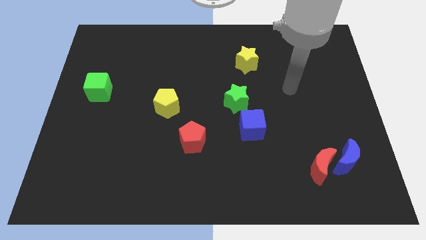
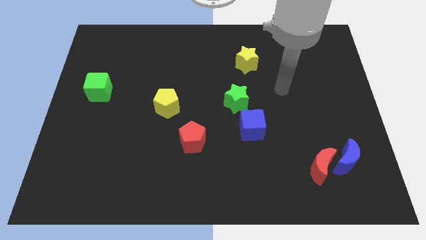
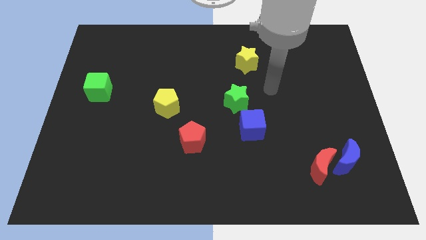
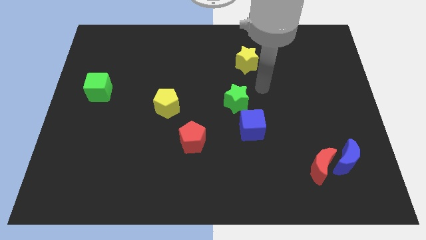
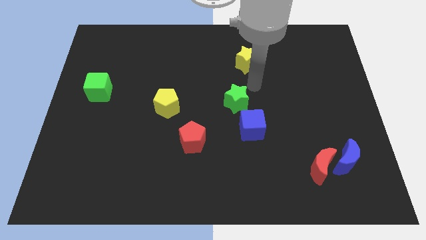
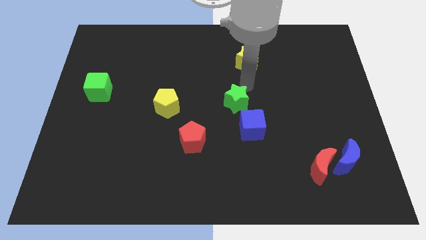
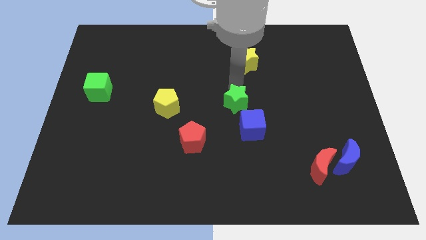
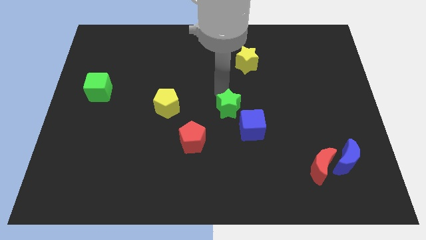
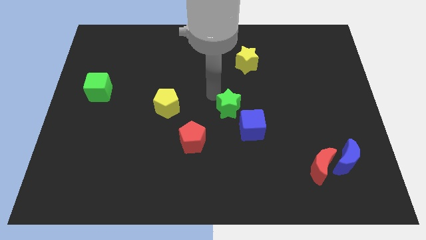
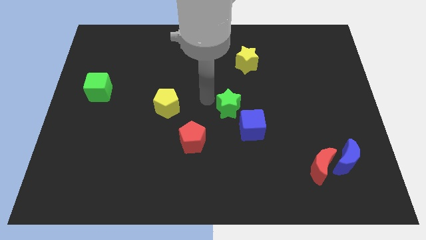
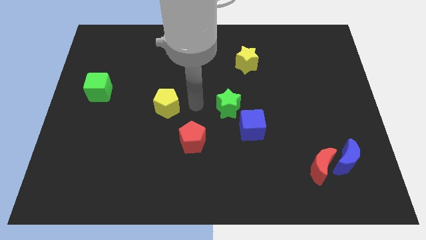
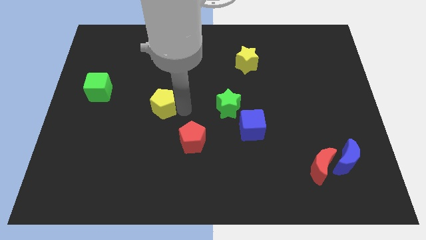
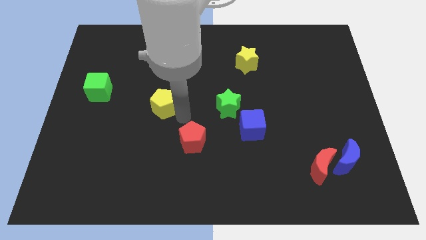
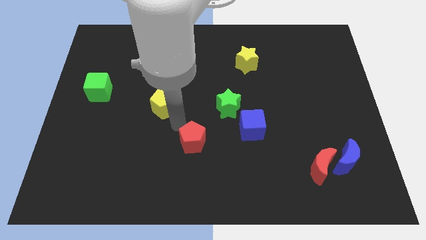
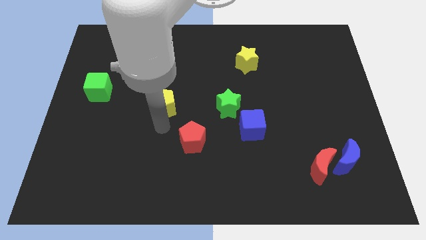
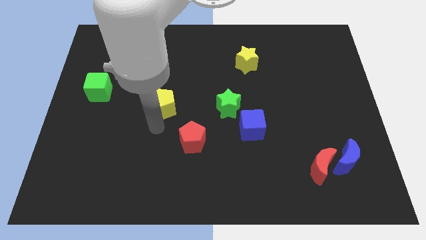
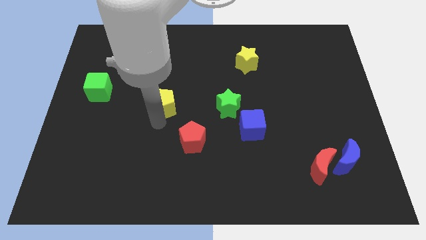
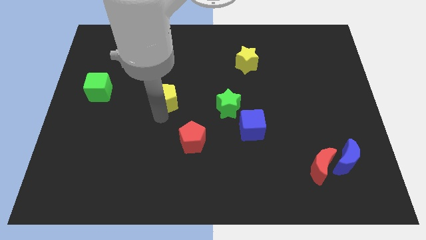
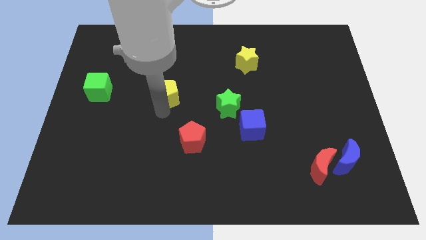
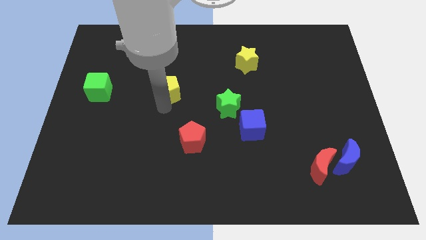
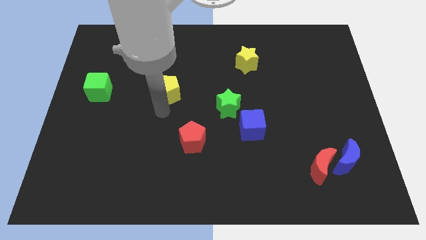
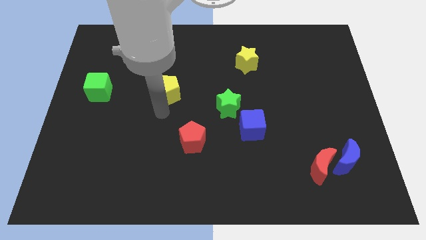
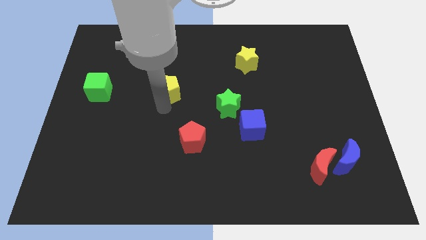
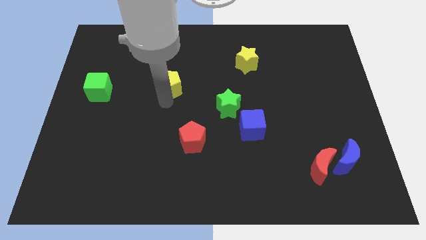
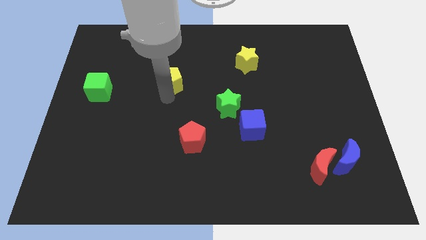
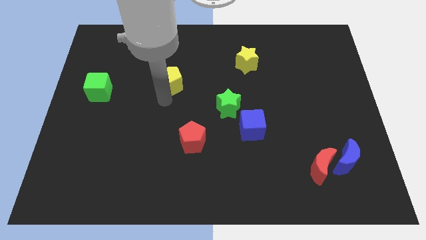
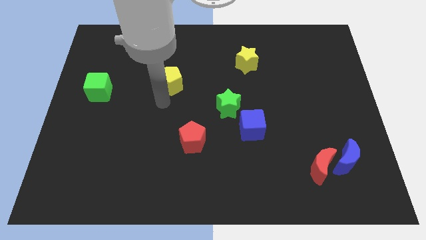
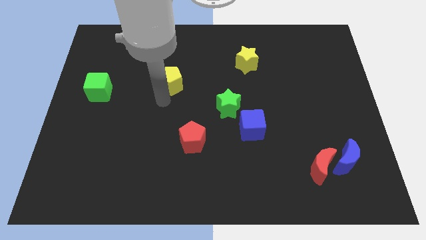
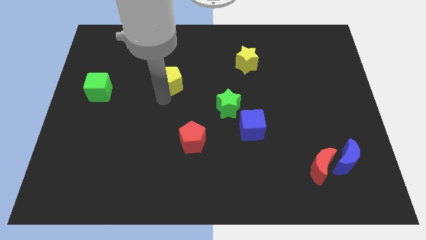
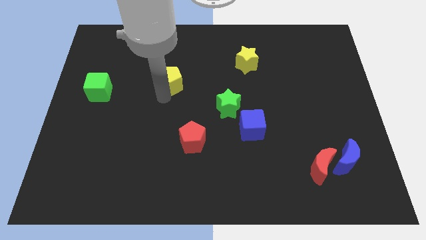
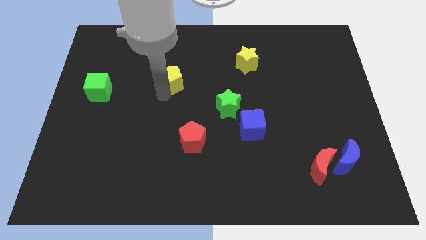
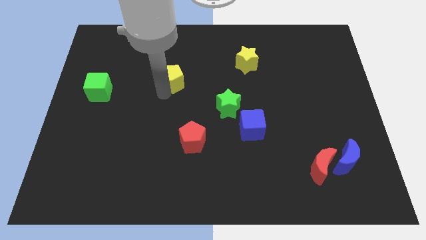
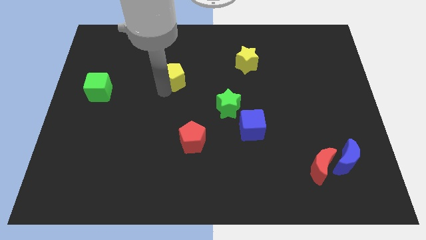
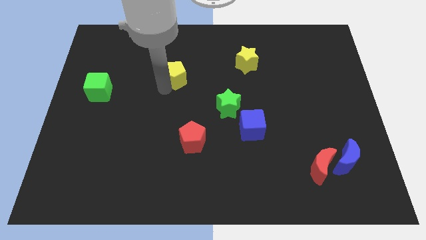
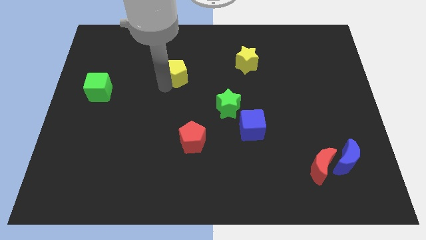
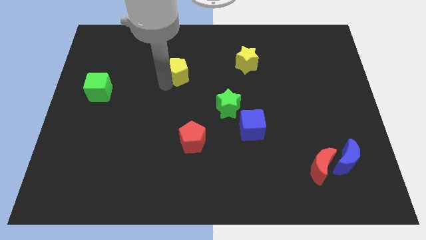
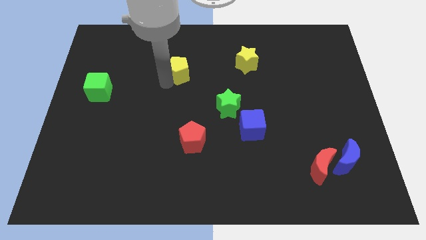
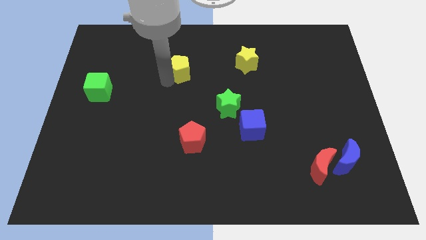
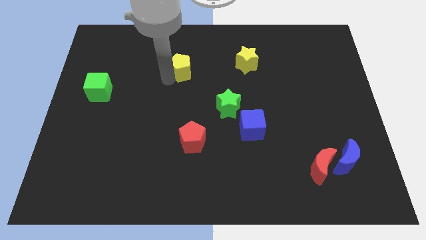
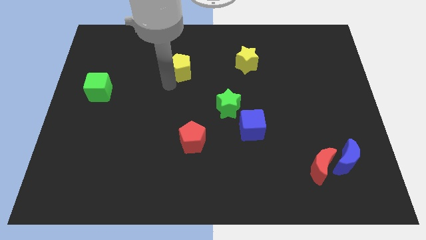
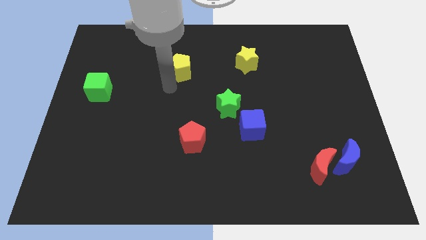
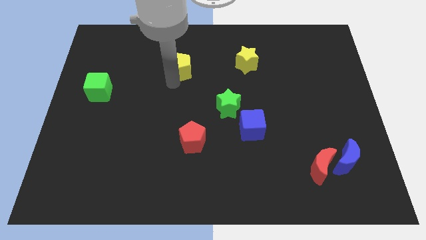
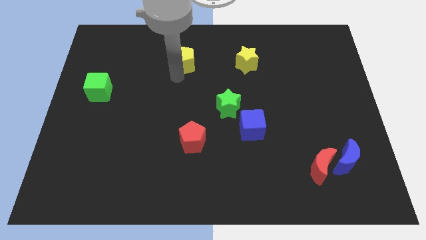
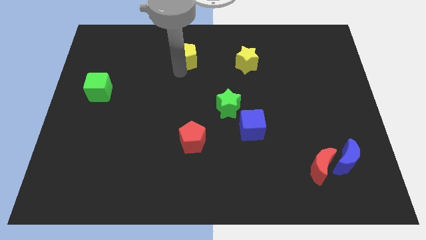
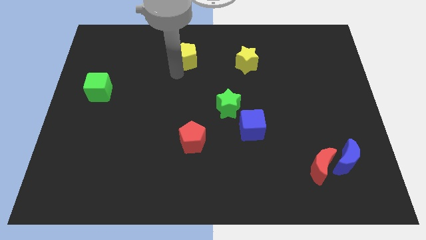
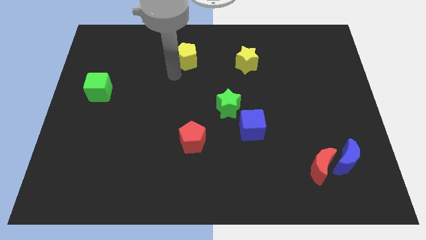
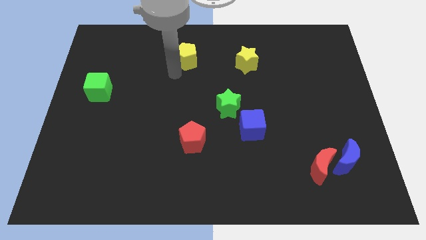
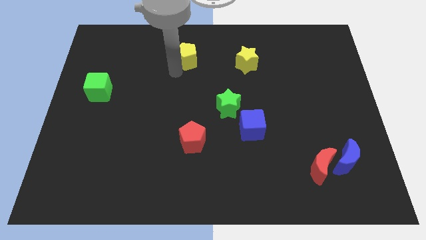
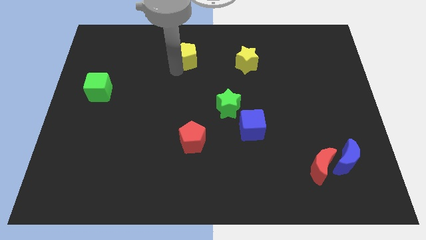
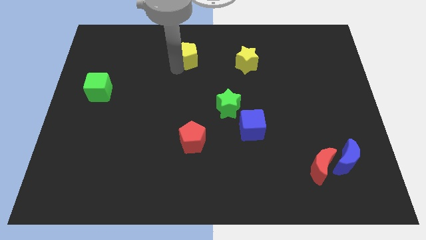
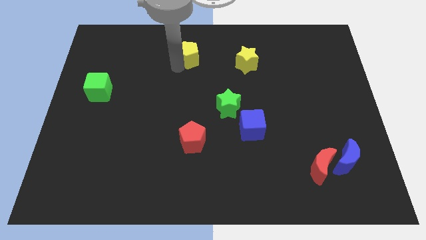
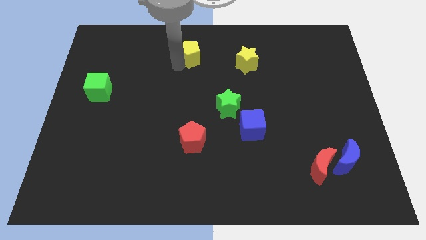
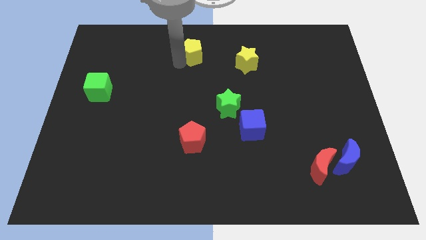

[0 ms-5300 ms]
push the yellow pentagon to the top side

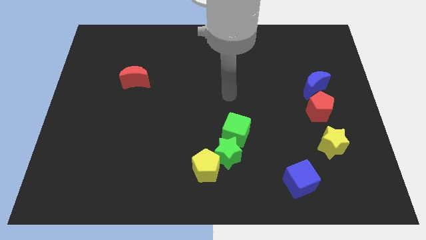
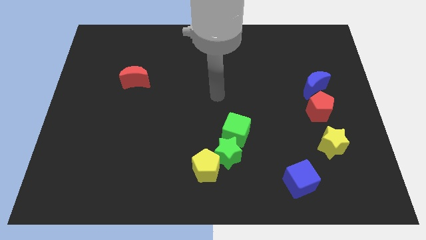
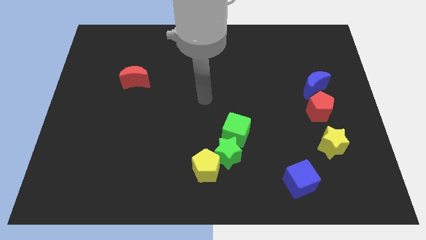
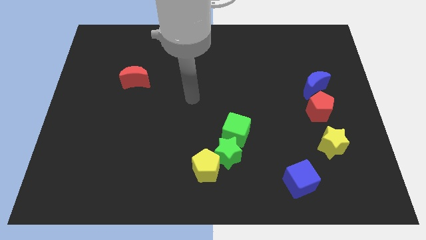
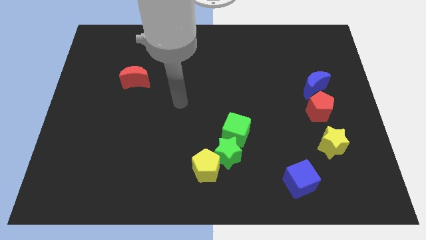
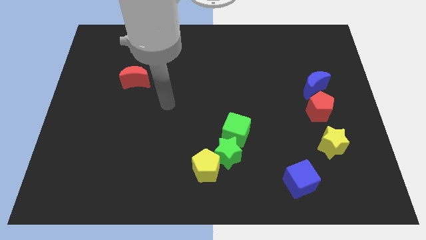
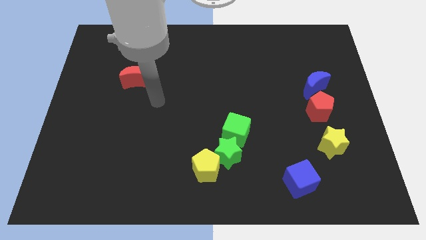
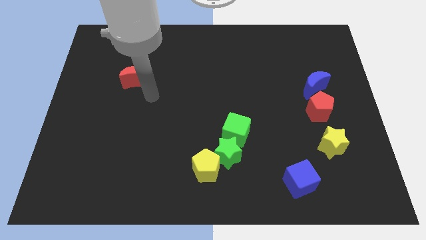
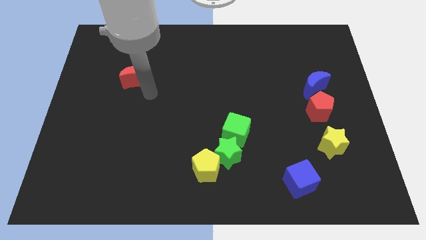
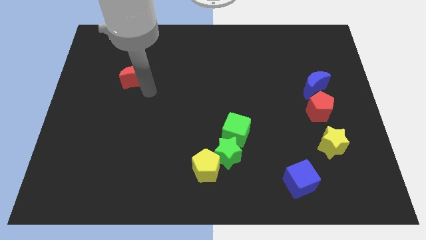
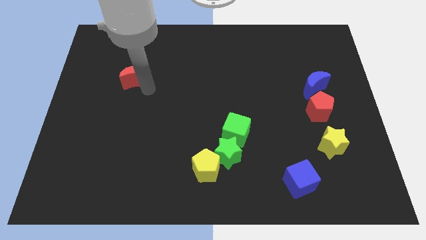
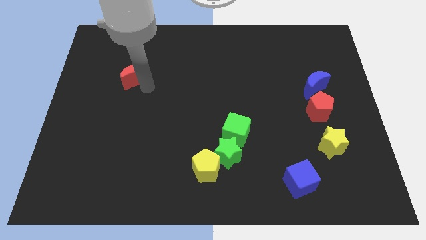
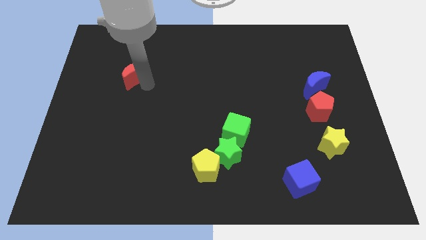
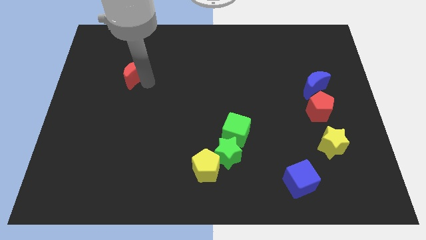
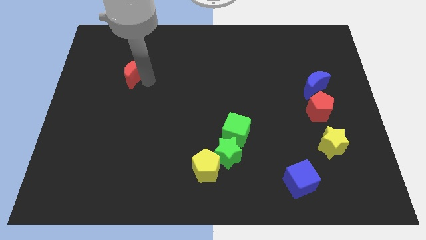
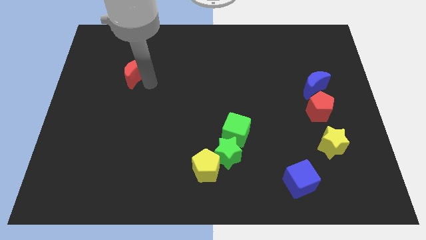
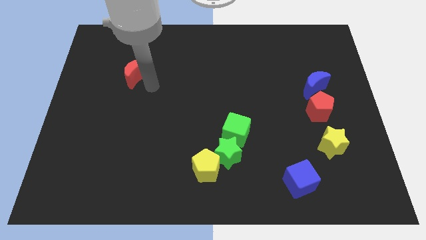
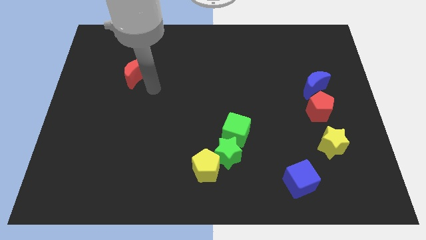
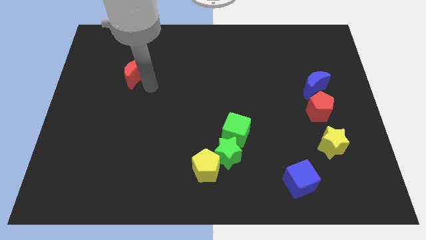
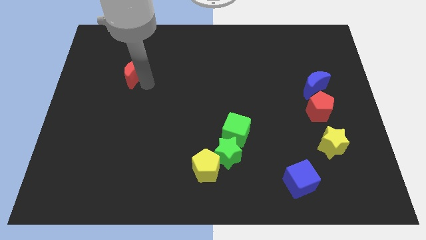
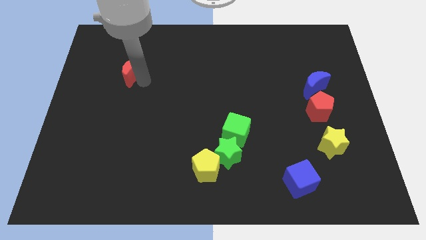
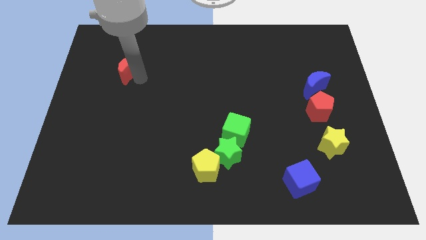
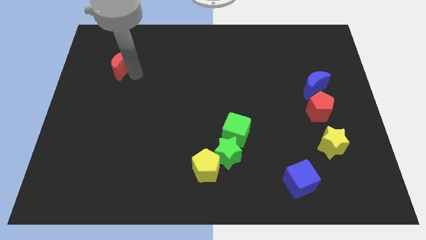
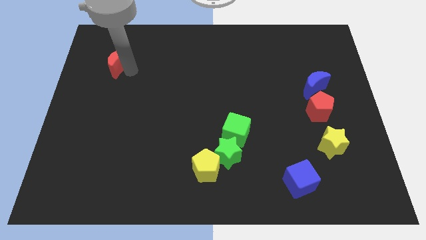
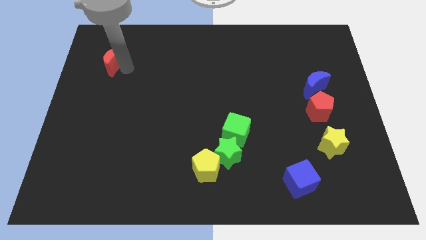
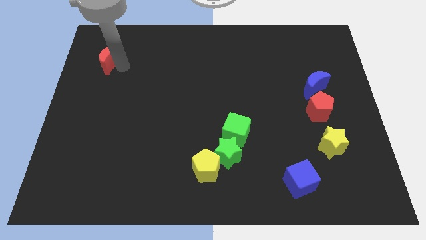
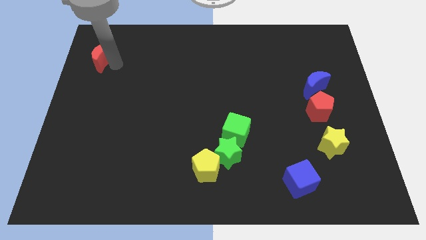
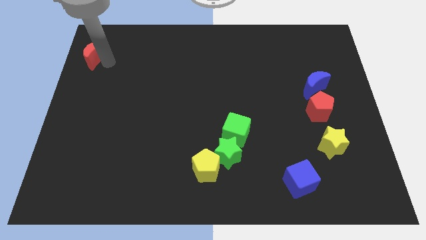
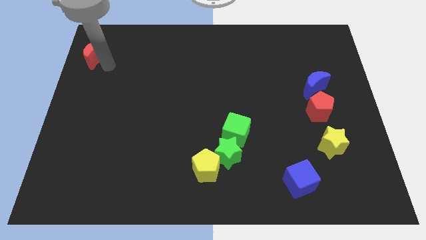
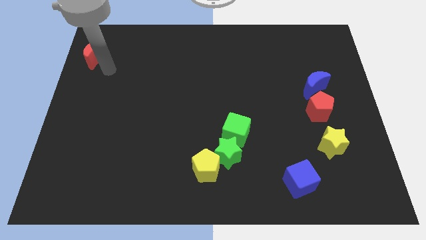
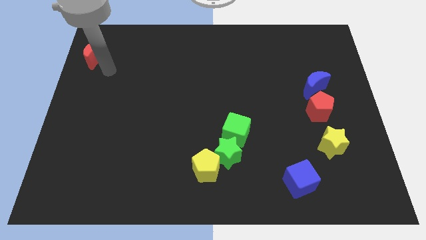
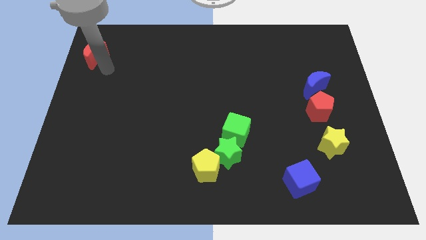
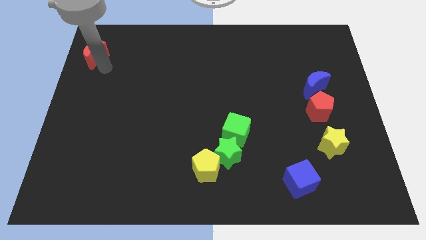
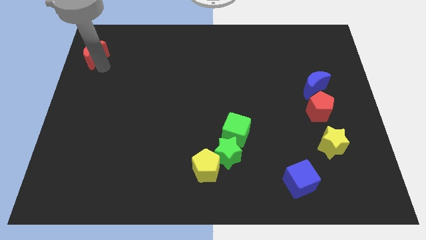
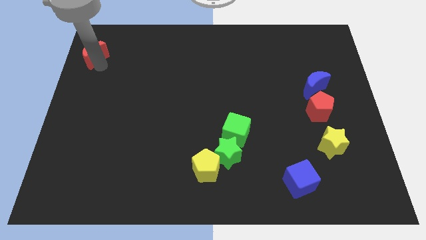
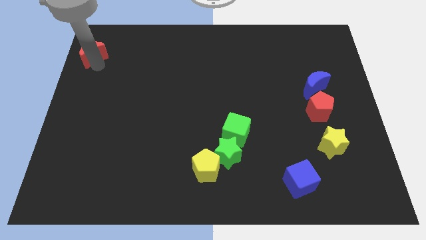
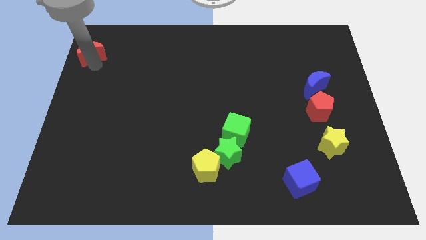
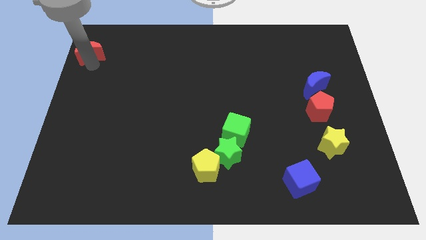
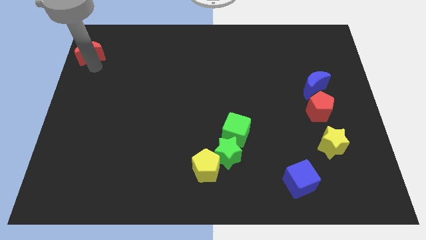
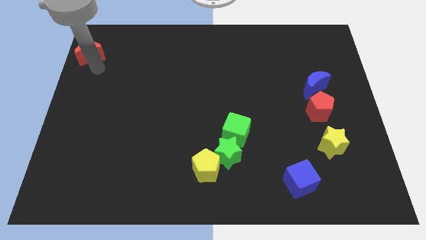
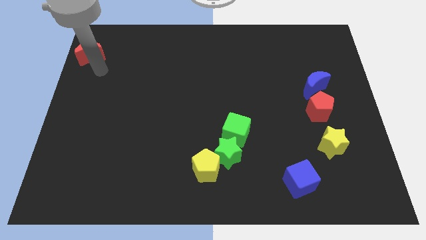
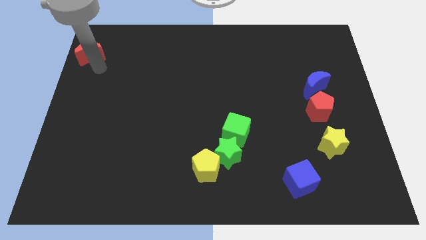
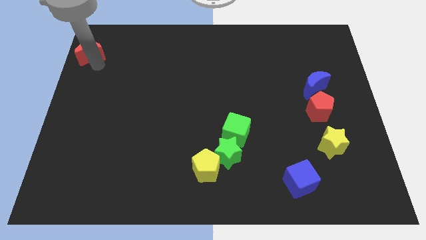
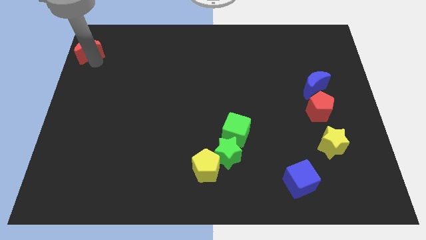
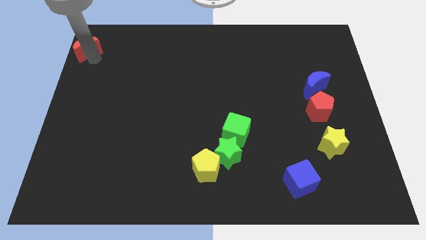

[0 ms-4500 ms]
put the red moon to the top left of the board
